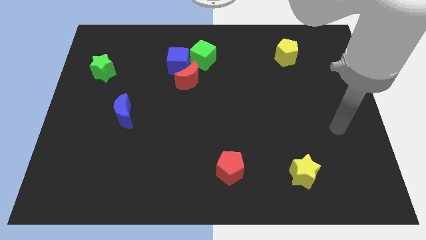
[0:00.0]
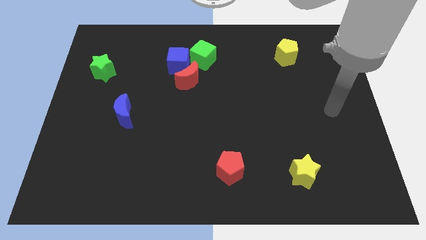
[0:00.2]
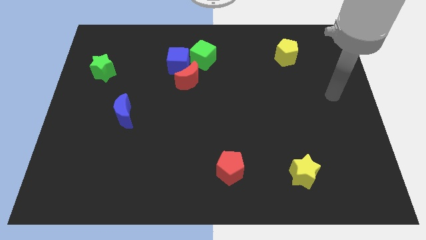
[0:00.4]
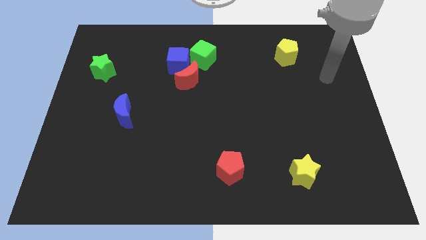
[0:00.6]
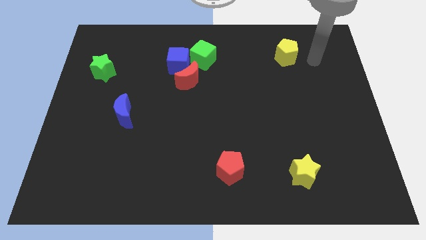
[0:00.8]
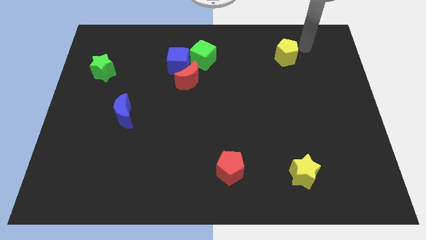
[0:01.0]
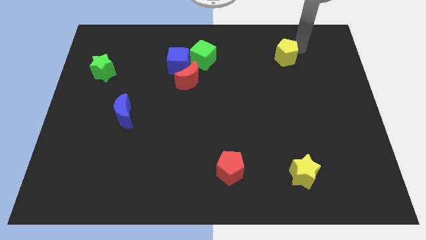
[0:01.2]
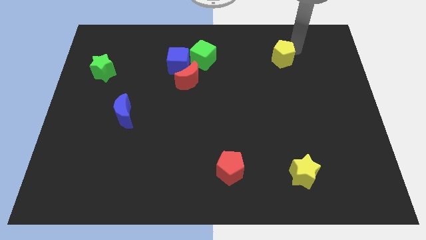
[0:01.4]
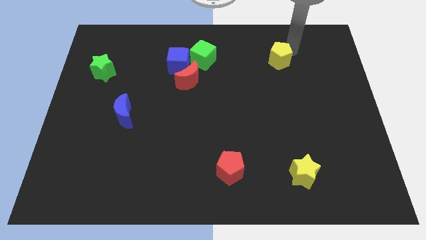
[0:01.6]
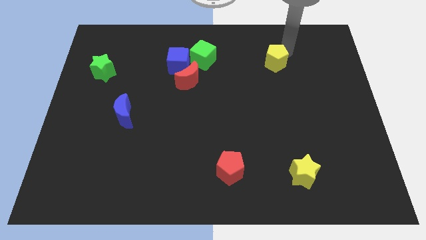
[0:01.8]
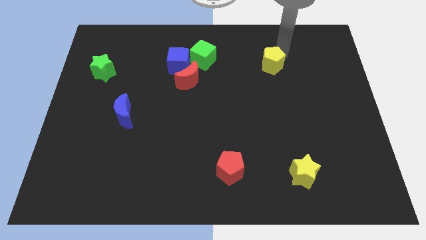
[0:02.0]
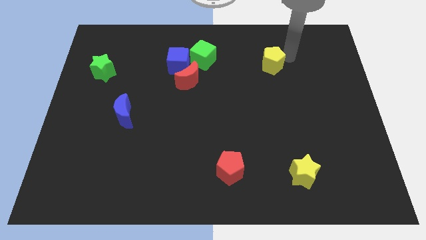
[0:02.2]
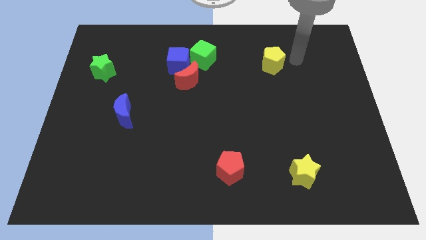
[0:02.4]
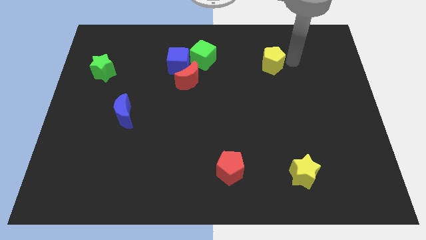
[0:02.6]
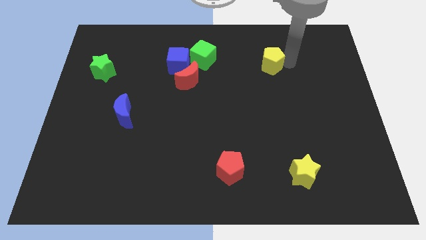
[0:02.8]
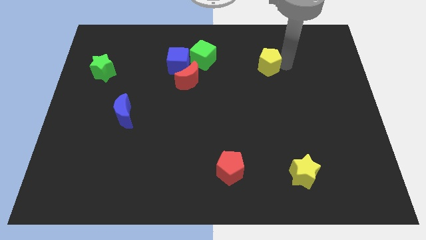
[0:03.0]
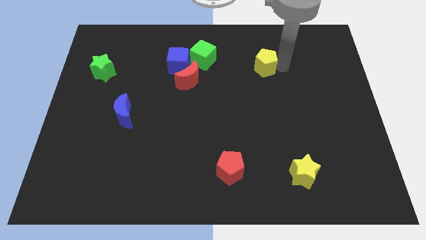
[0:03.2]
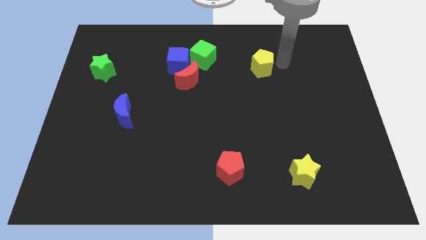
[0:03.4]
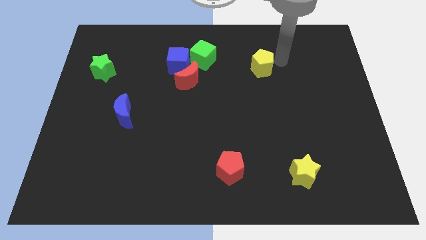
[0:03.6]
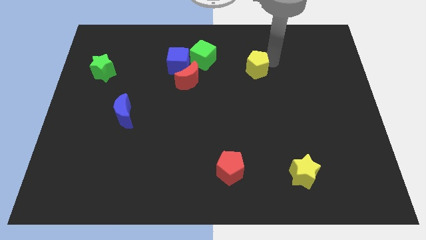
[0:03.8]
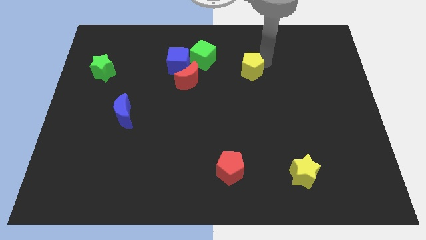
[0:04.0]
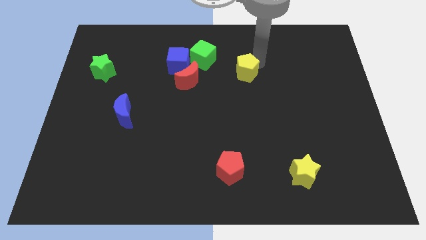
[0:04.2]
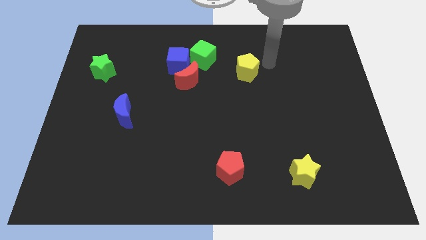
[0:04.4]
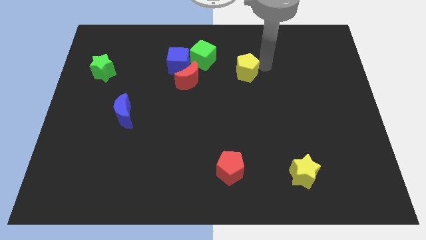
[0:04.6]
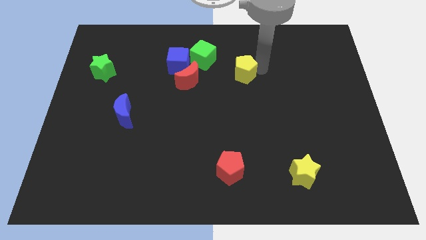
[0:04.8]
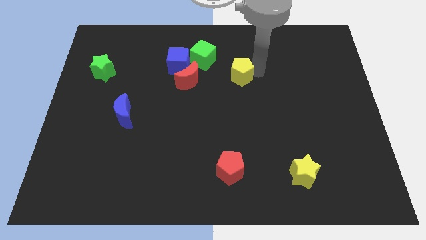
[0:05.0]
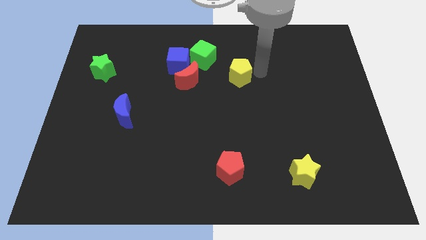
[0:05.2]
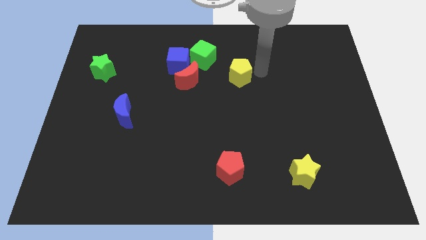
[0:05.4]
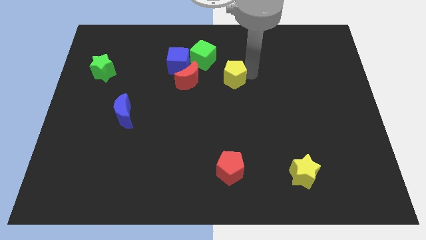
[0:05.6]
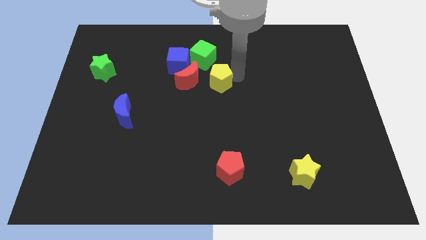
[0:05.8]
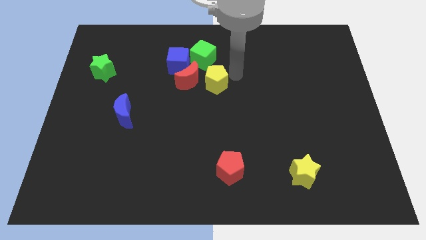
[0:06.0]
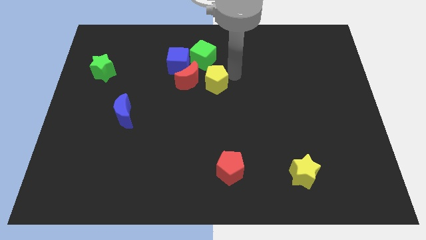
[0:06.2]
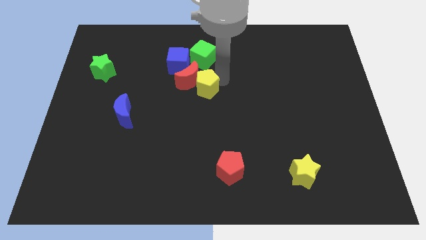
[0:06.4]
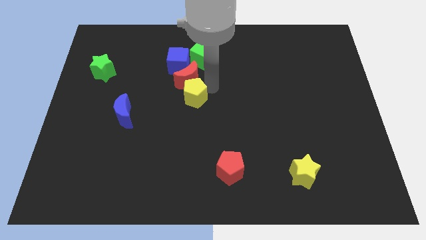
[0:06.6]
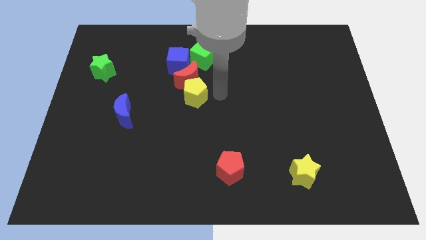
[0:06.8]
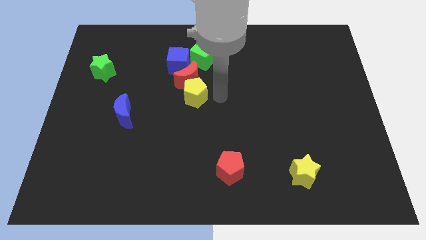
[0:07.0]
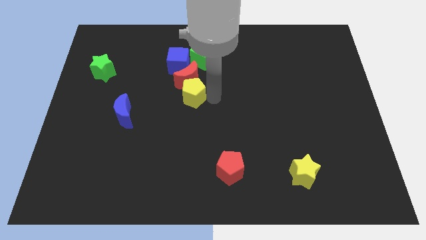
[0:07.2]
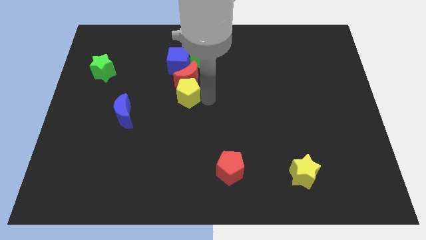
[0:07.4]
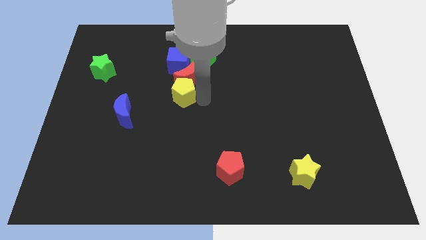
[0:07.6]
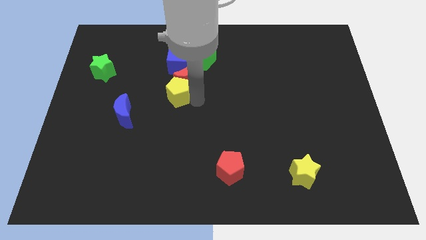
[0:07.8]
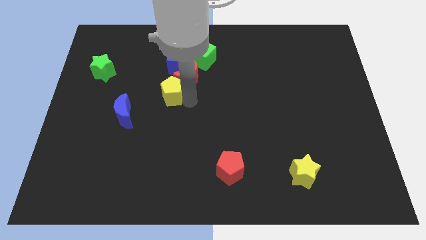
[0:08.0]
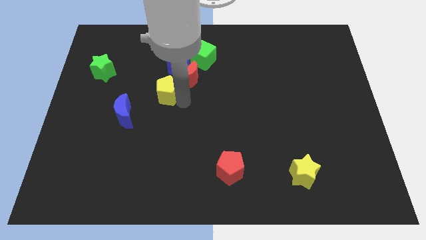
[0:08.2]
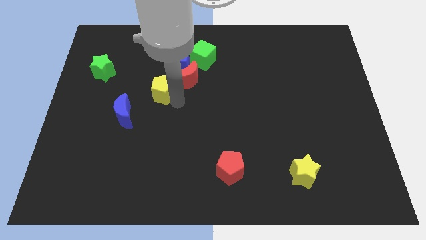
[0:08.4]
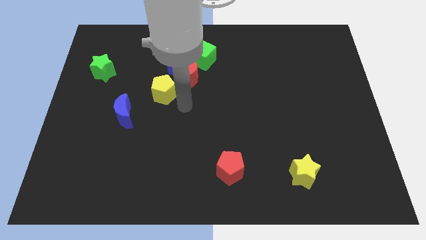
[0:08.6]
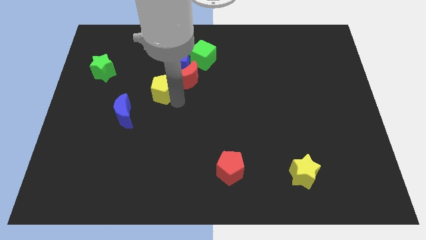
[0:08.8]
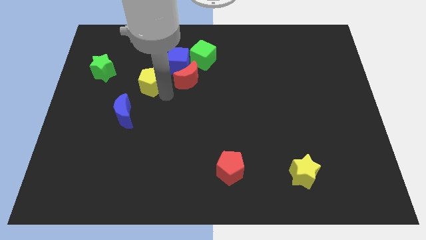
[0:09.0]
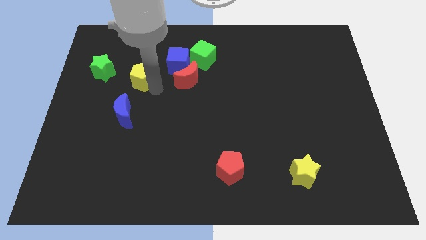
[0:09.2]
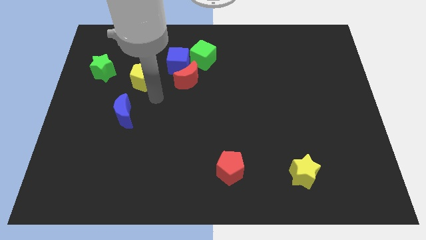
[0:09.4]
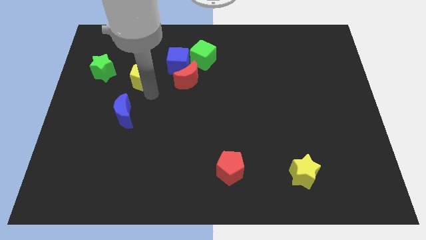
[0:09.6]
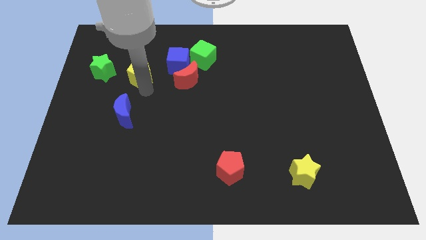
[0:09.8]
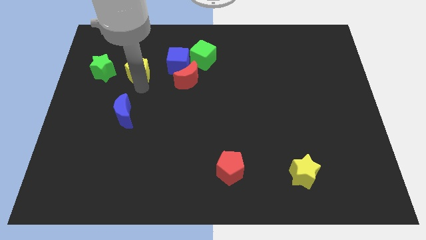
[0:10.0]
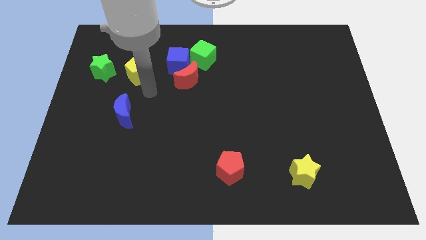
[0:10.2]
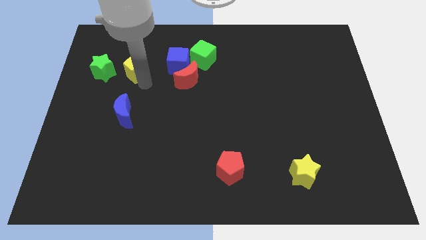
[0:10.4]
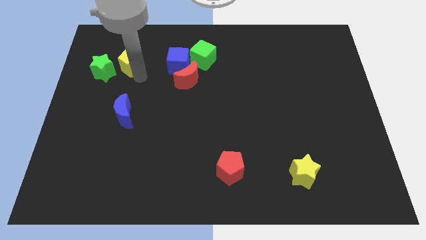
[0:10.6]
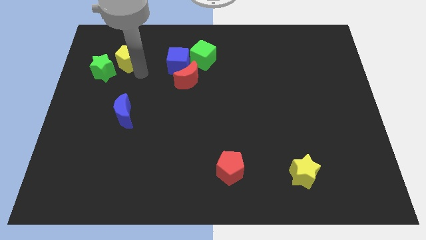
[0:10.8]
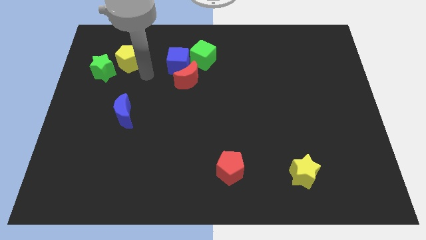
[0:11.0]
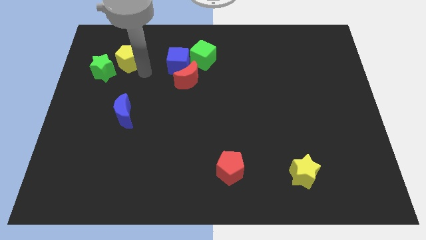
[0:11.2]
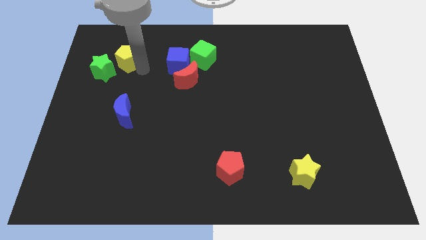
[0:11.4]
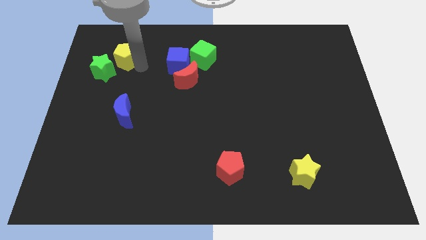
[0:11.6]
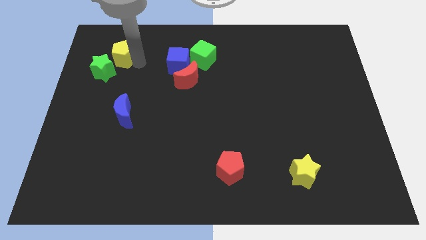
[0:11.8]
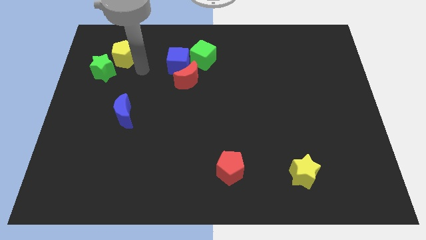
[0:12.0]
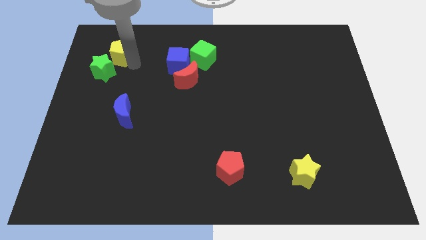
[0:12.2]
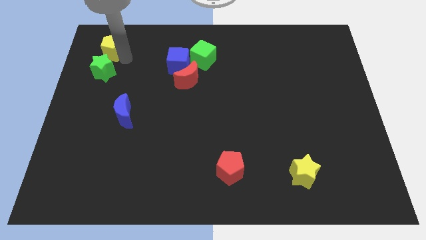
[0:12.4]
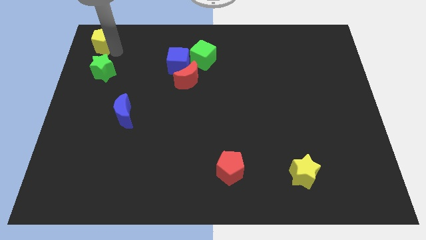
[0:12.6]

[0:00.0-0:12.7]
move the yellow pentagon to the top left of the board

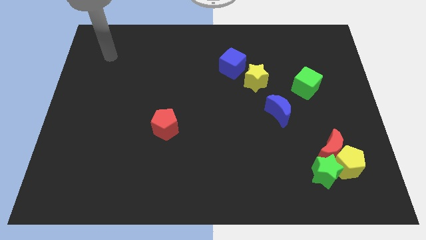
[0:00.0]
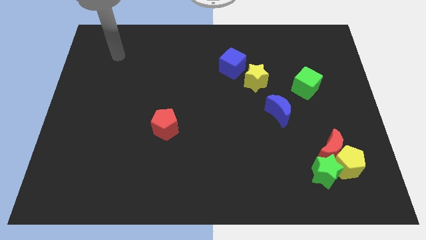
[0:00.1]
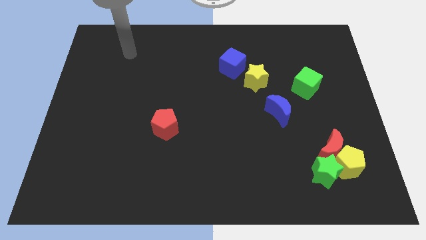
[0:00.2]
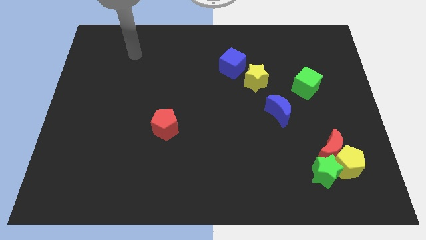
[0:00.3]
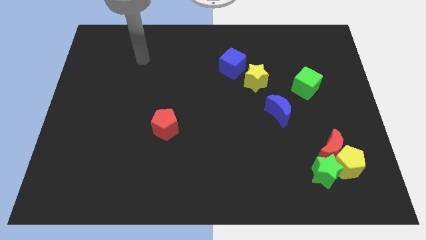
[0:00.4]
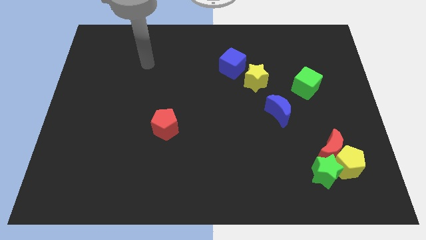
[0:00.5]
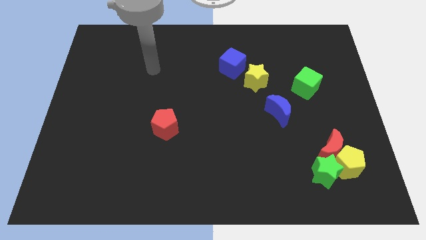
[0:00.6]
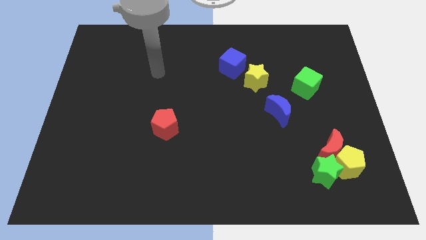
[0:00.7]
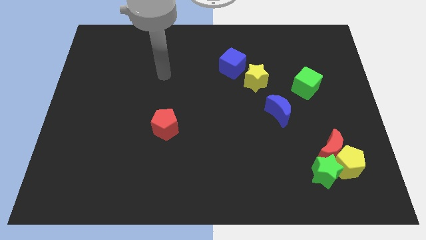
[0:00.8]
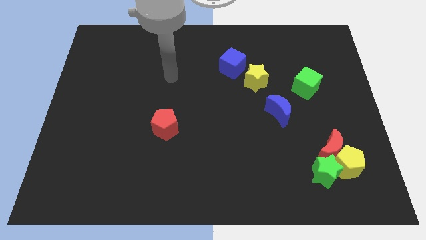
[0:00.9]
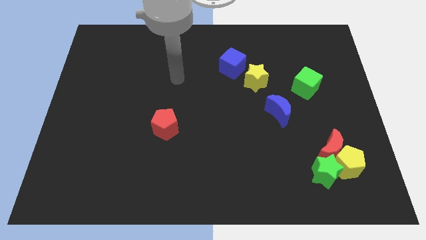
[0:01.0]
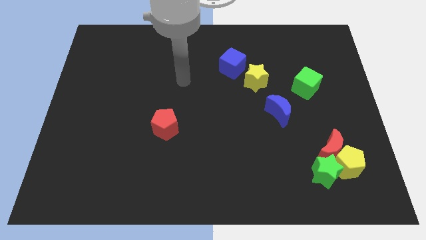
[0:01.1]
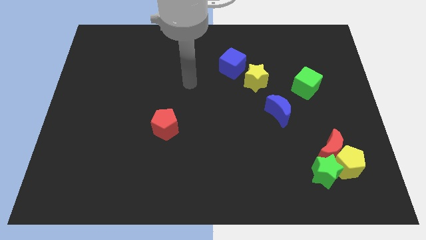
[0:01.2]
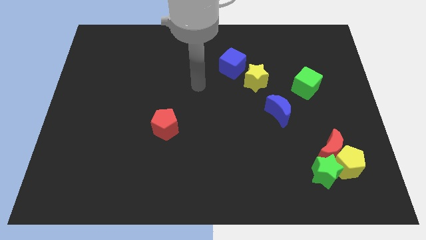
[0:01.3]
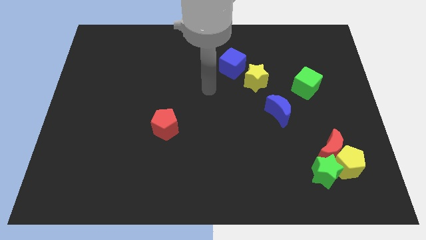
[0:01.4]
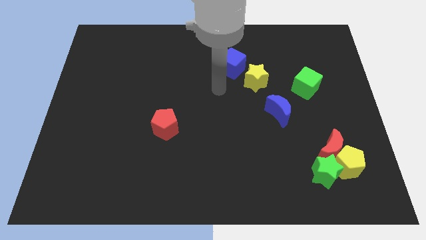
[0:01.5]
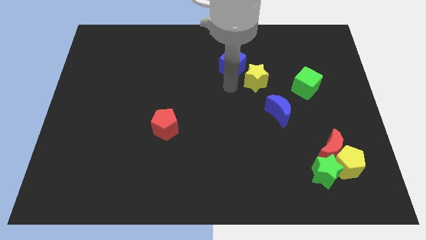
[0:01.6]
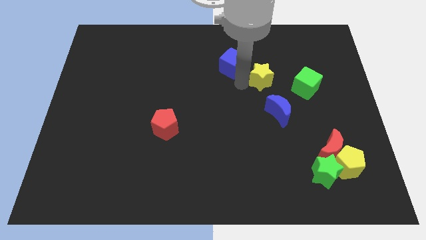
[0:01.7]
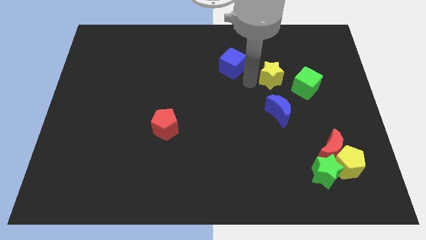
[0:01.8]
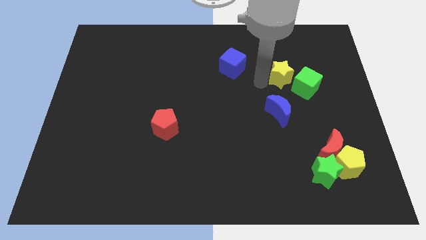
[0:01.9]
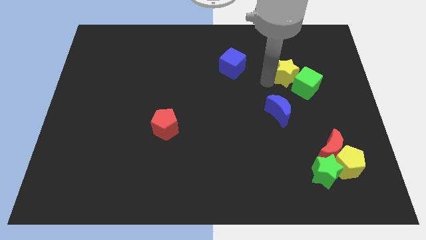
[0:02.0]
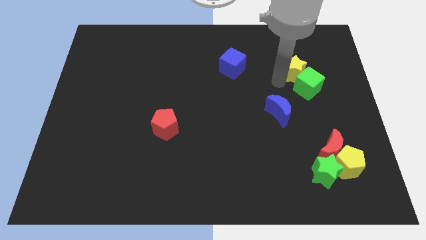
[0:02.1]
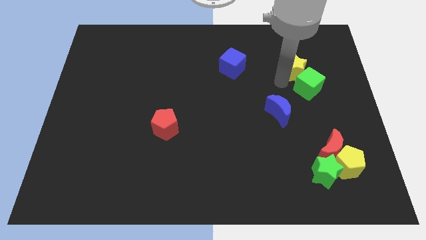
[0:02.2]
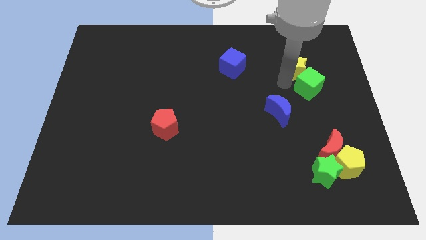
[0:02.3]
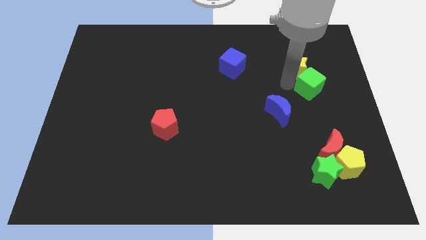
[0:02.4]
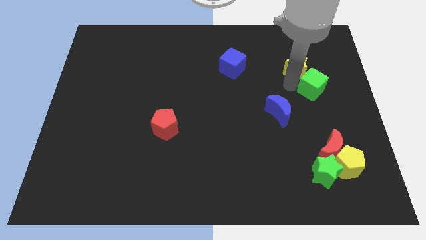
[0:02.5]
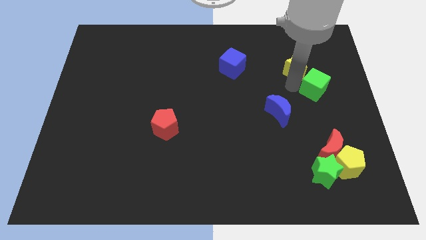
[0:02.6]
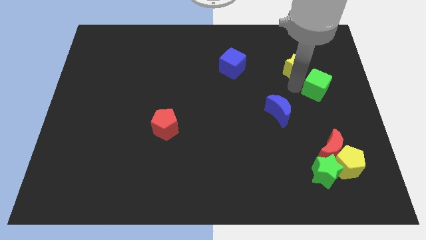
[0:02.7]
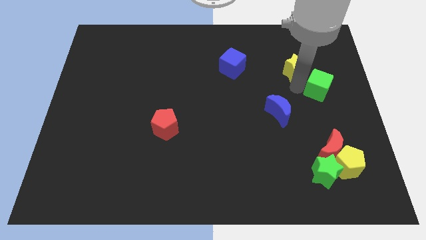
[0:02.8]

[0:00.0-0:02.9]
push the green cube to the center right
